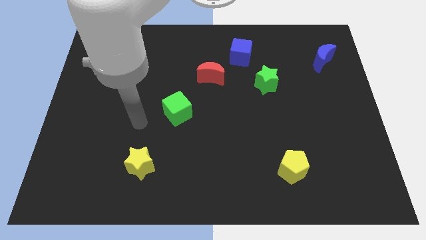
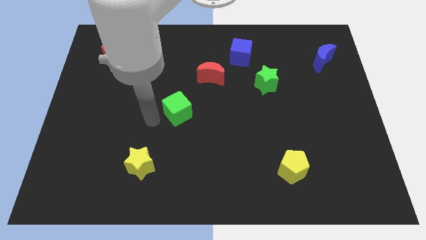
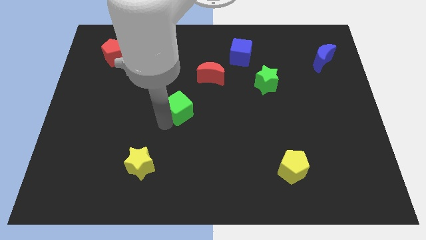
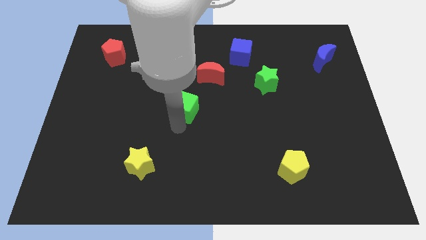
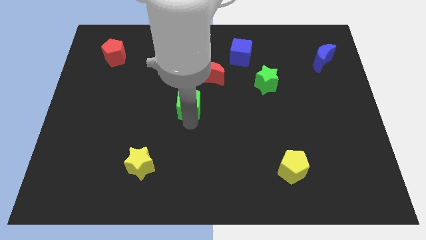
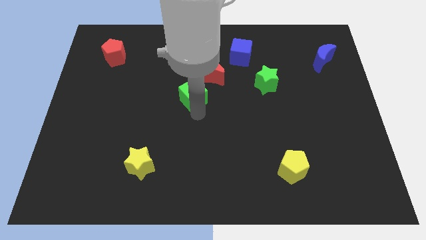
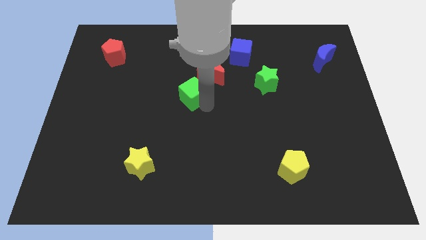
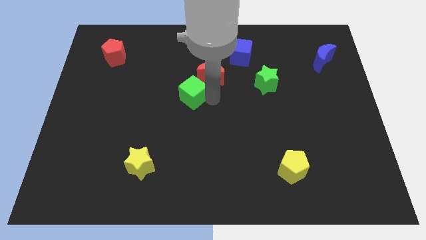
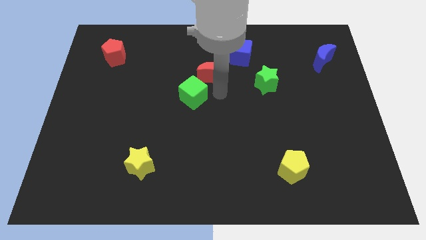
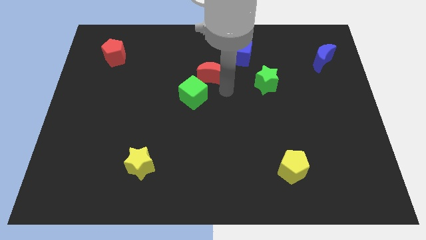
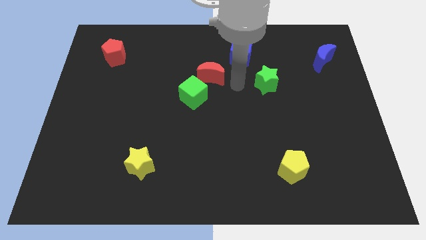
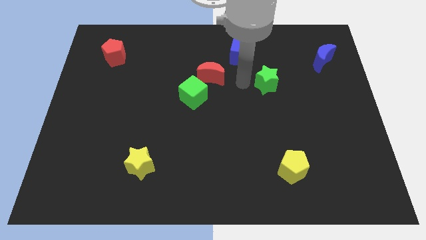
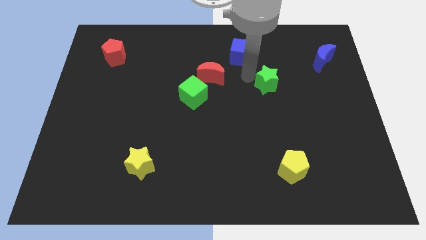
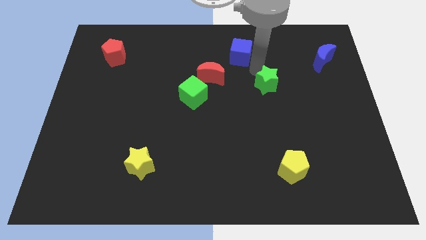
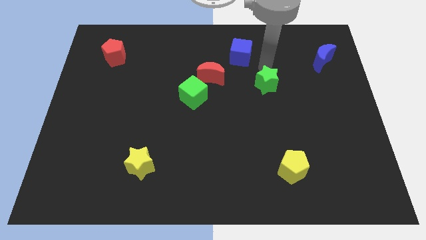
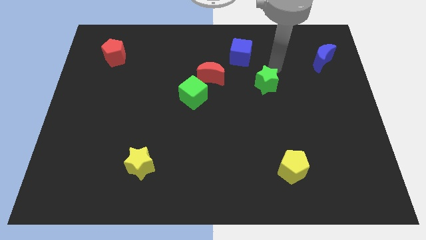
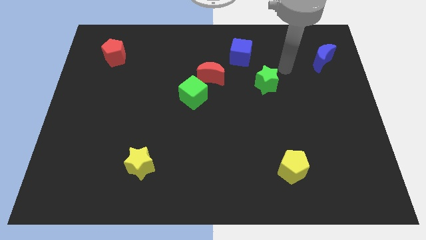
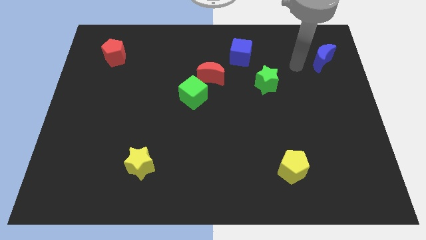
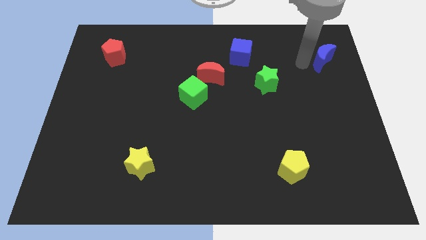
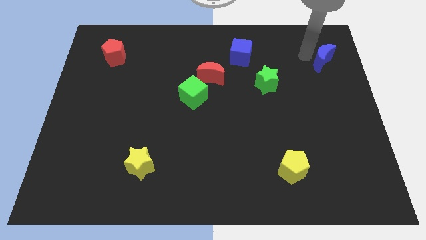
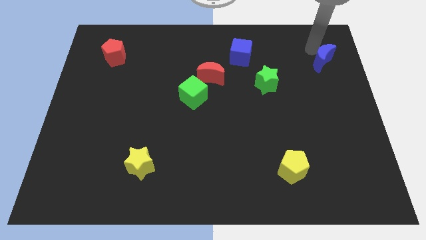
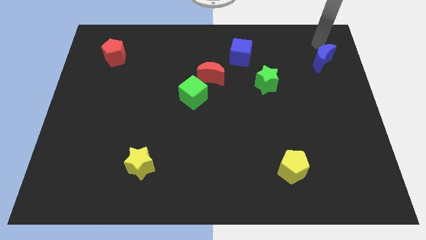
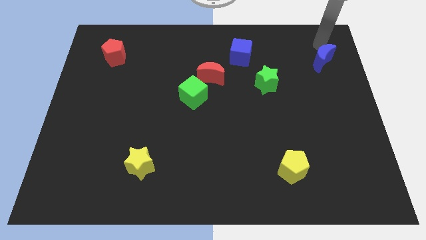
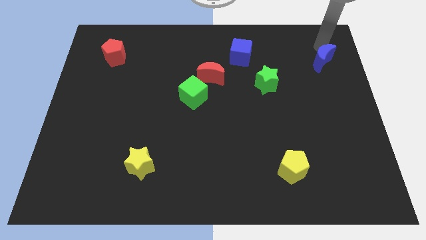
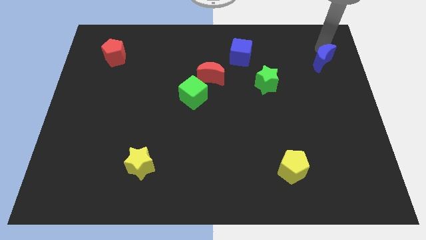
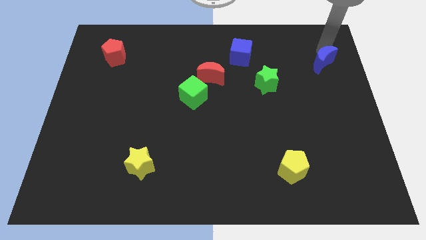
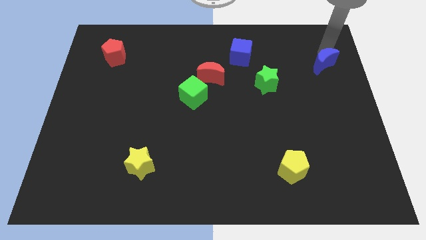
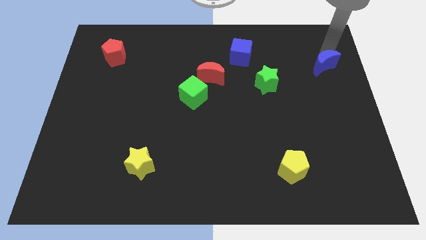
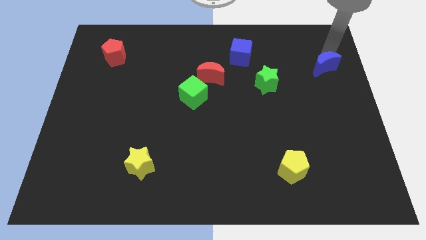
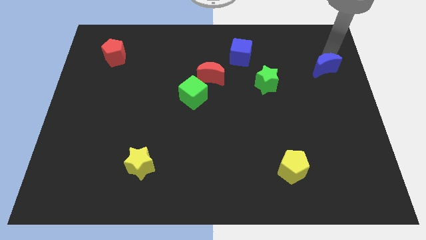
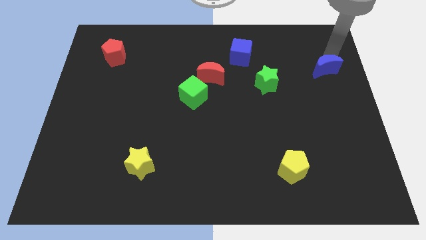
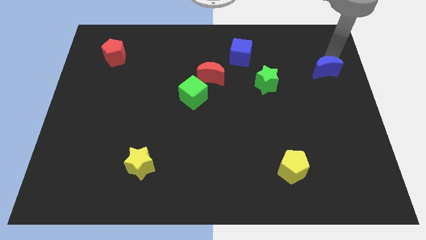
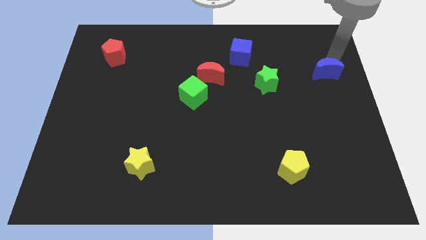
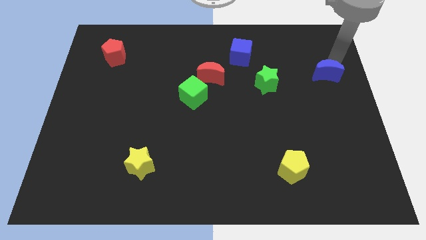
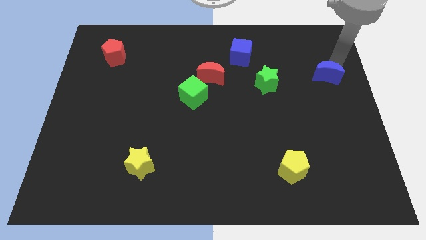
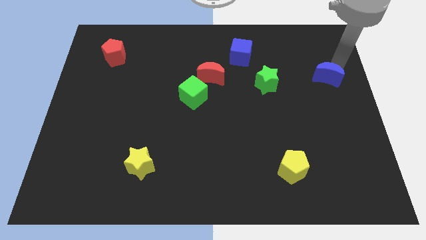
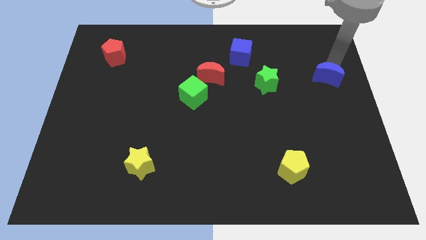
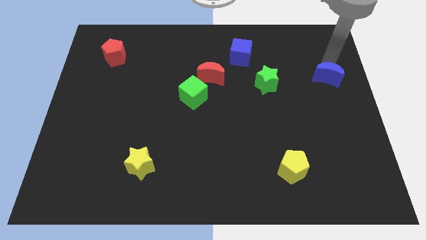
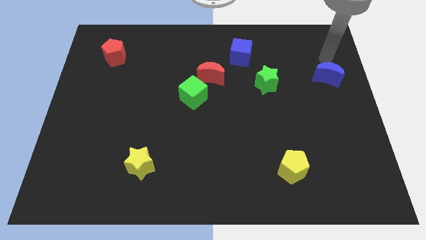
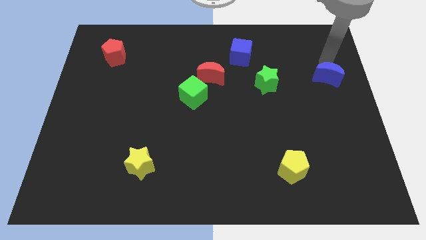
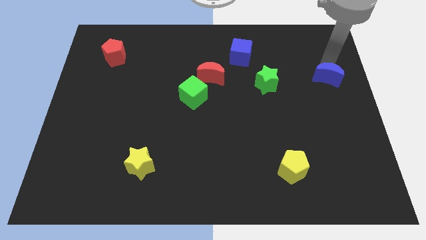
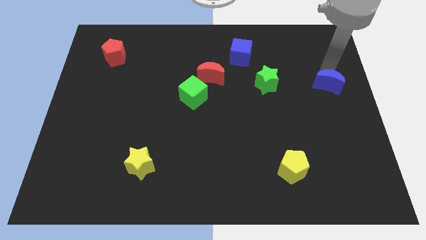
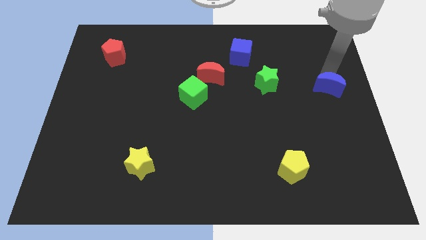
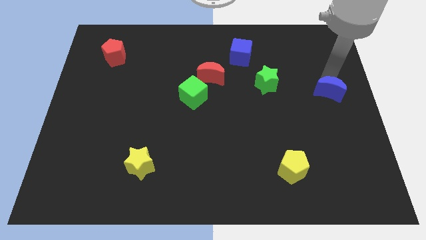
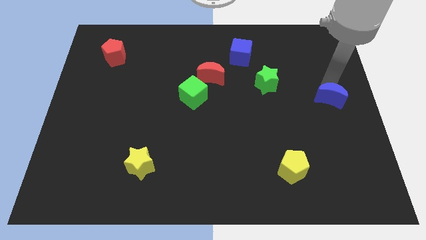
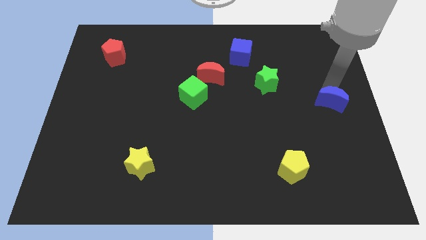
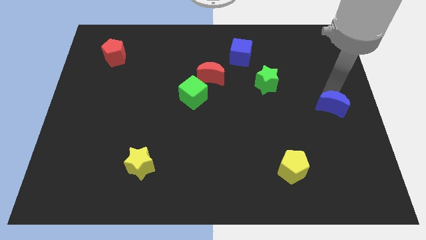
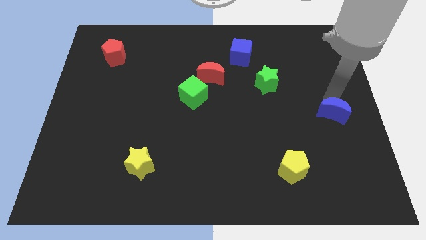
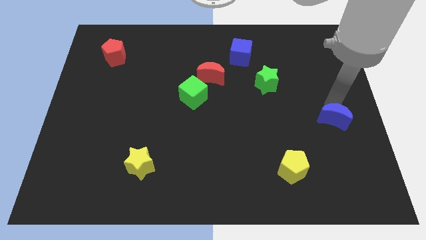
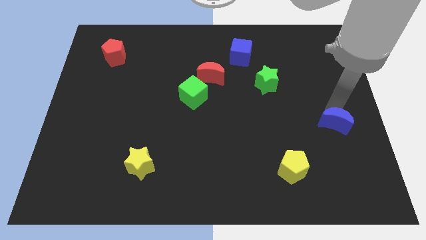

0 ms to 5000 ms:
move the blue moon down

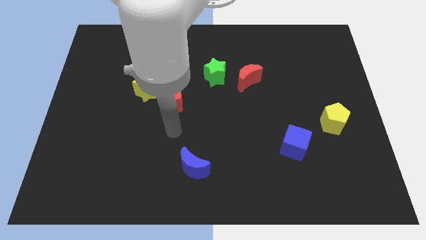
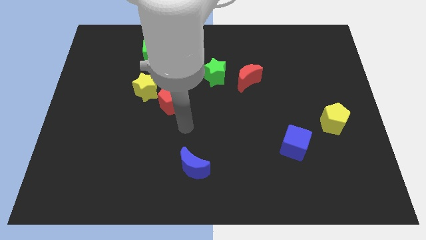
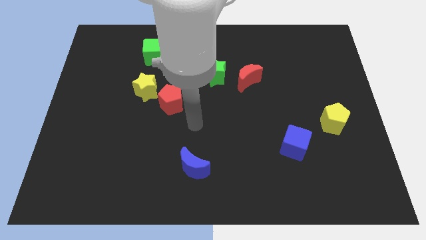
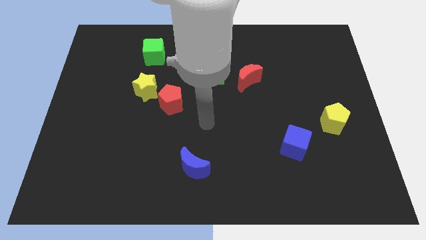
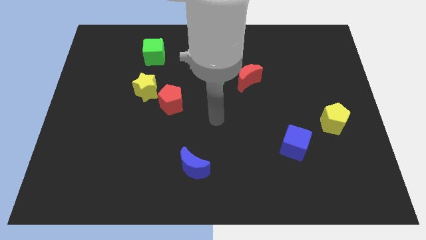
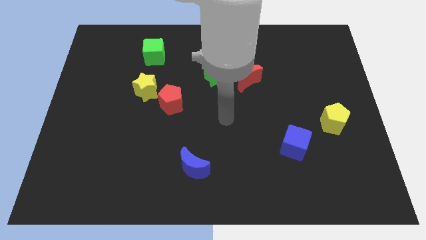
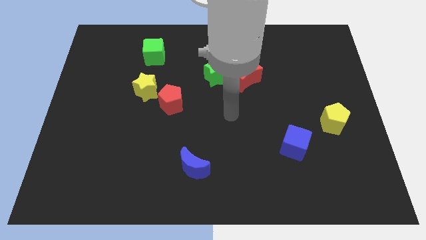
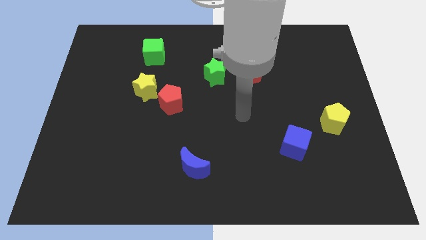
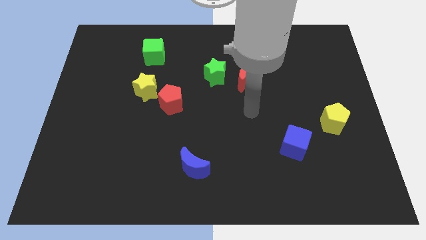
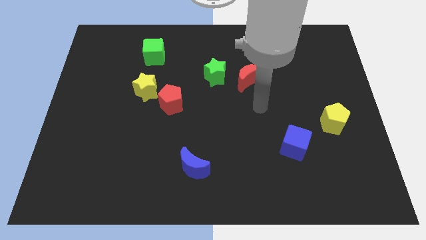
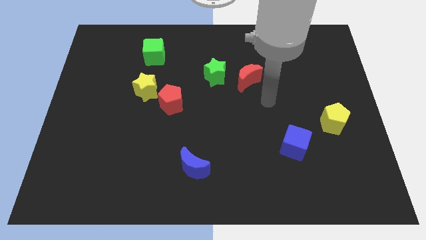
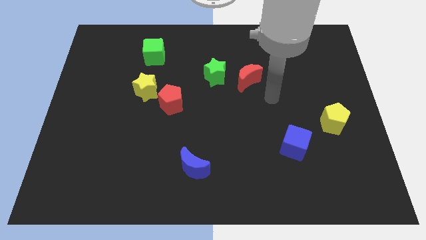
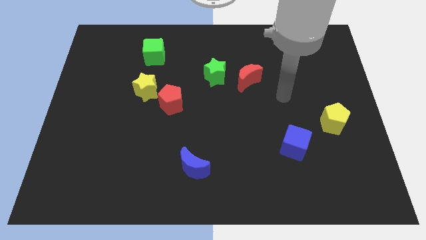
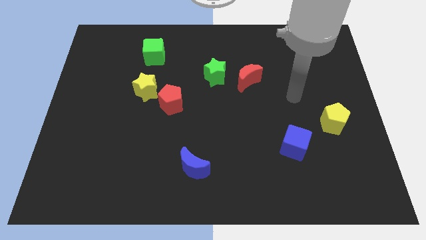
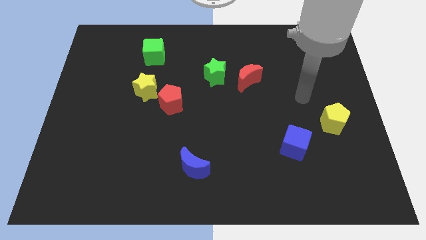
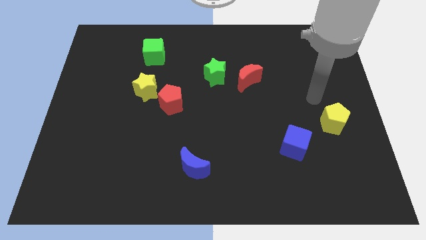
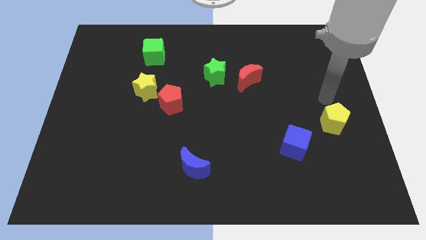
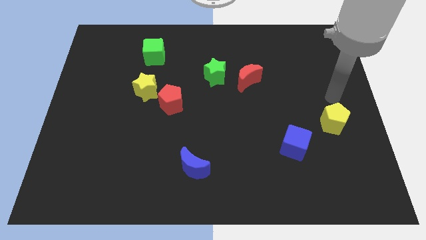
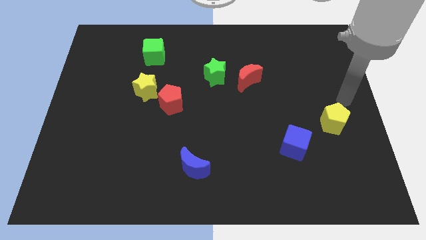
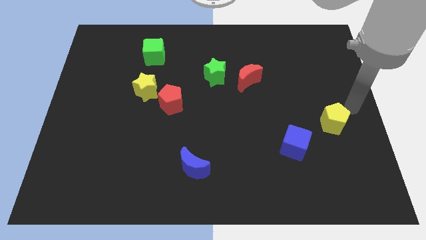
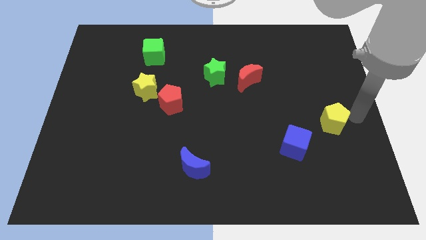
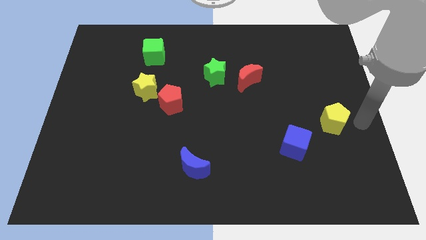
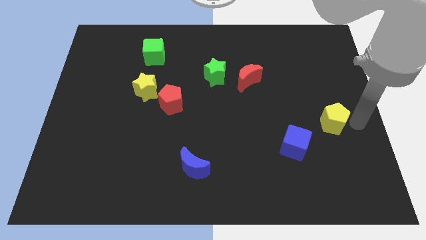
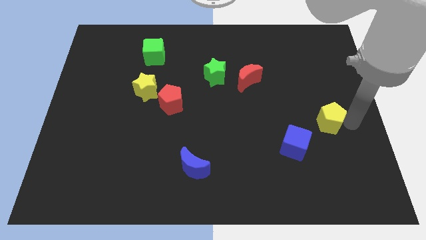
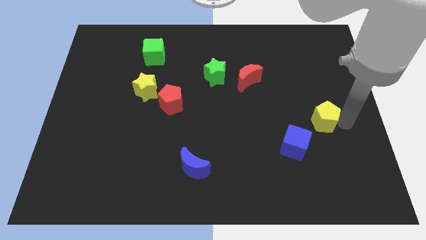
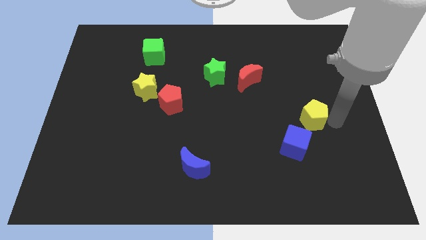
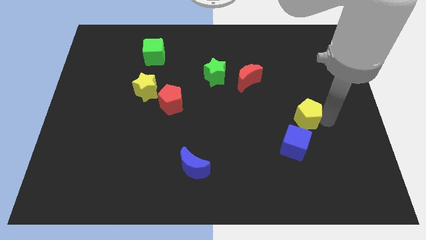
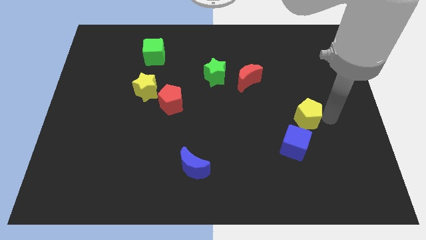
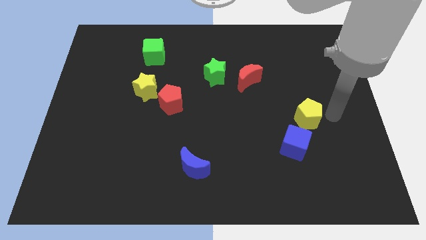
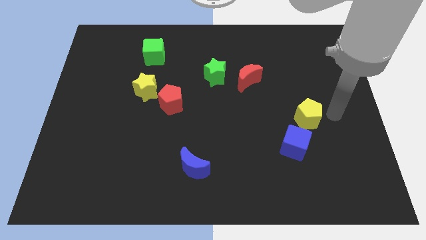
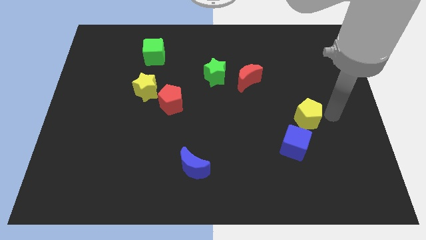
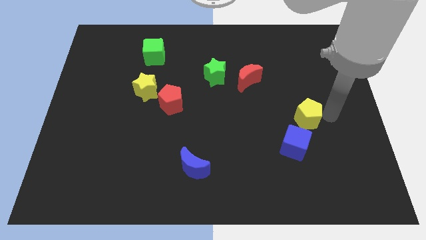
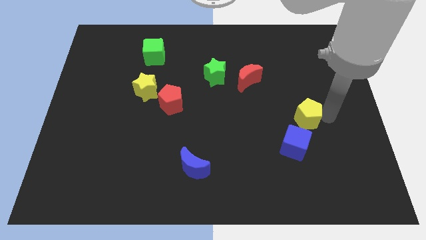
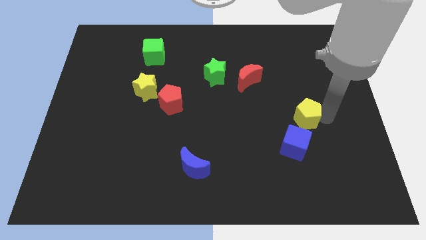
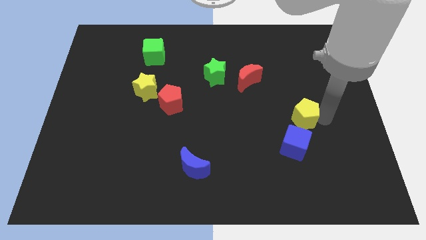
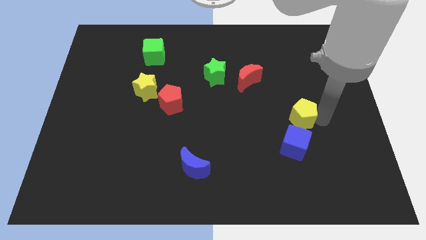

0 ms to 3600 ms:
move the yellow pentagon left a little bit
